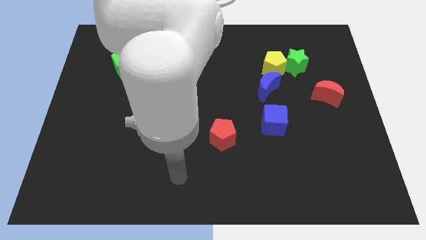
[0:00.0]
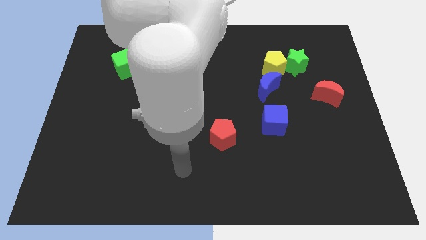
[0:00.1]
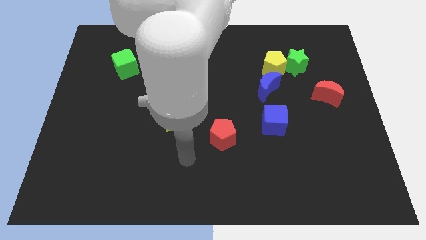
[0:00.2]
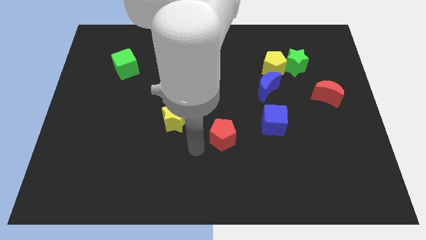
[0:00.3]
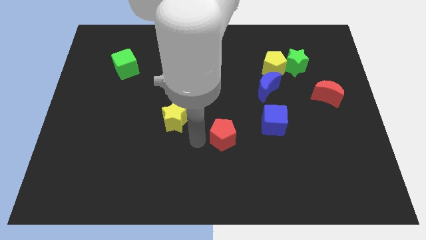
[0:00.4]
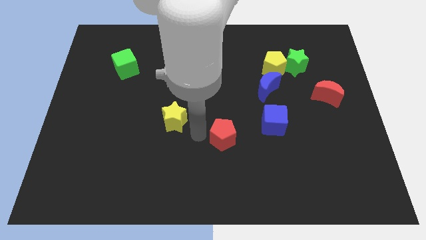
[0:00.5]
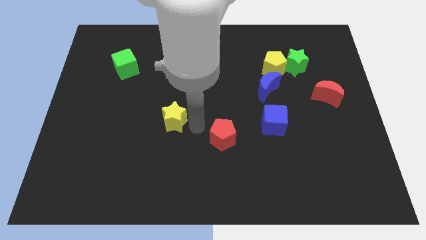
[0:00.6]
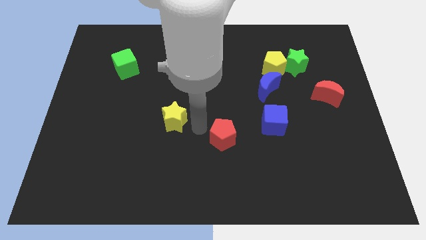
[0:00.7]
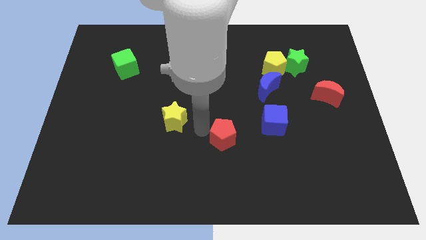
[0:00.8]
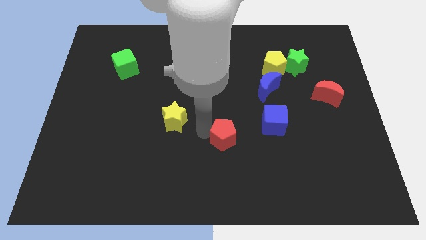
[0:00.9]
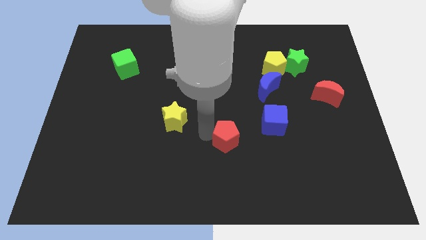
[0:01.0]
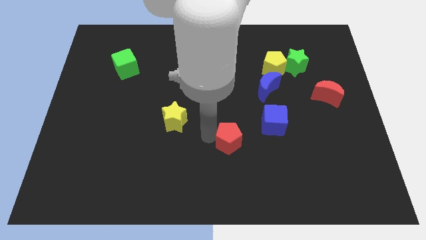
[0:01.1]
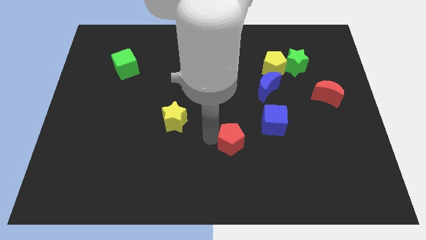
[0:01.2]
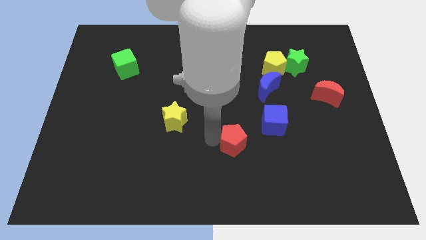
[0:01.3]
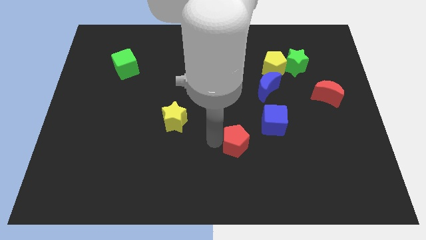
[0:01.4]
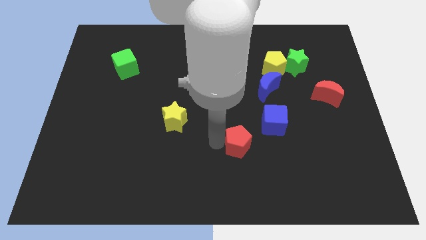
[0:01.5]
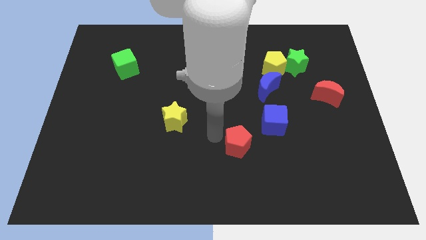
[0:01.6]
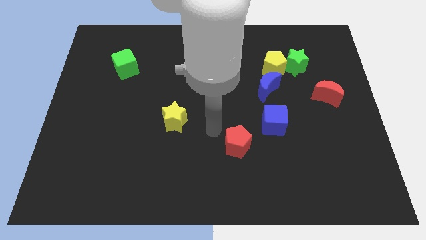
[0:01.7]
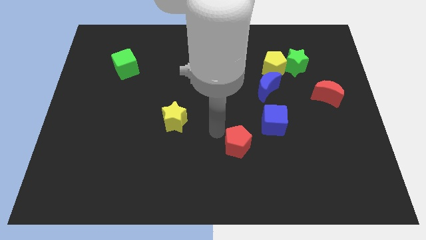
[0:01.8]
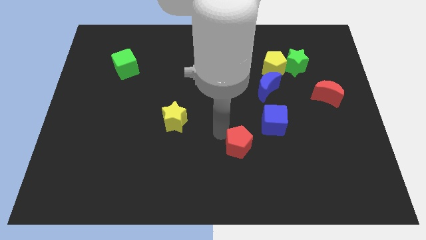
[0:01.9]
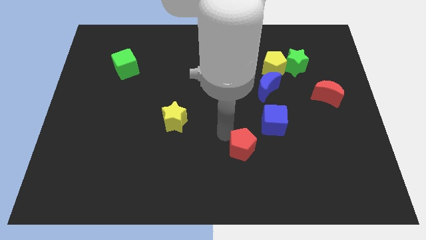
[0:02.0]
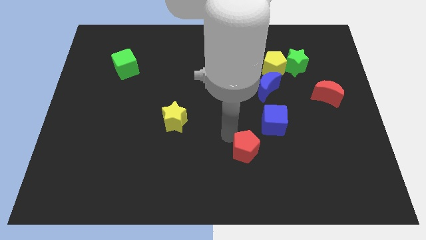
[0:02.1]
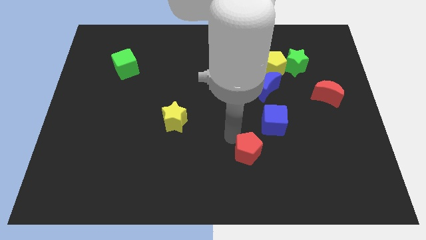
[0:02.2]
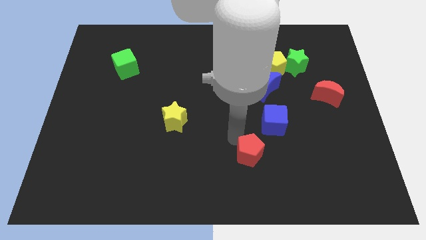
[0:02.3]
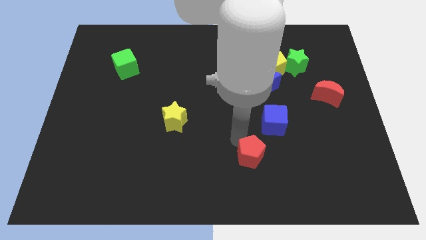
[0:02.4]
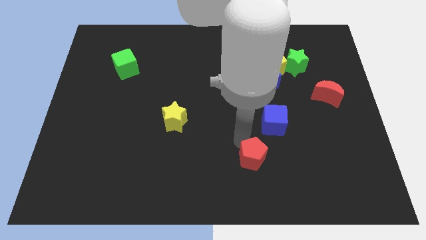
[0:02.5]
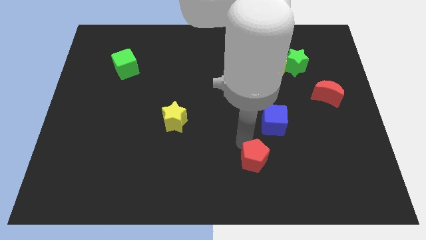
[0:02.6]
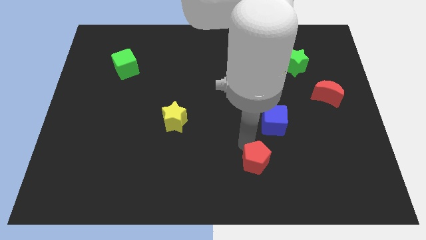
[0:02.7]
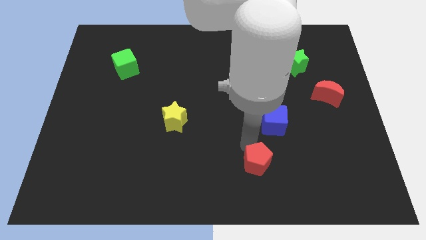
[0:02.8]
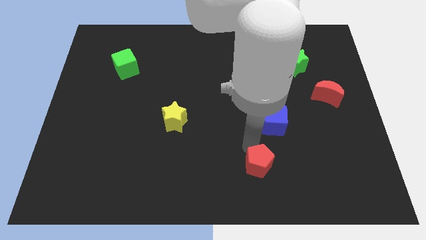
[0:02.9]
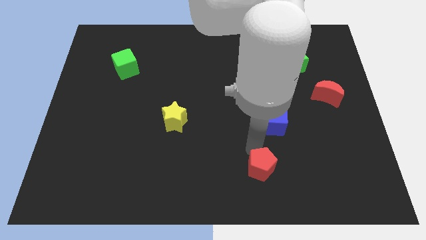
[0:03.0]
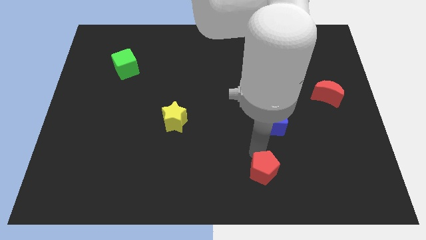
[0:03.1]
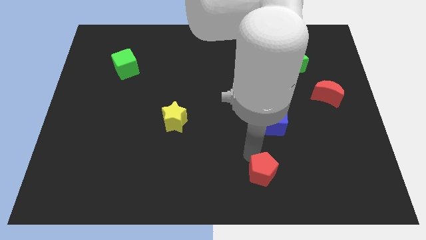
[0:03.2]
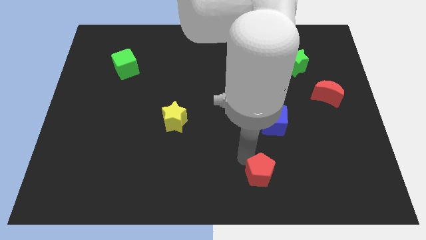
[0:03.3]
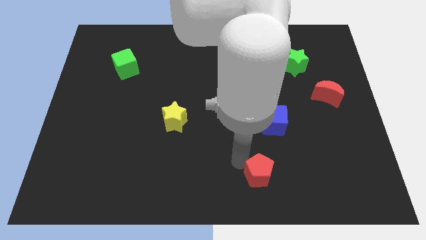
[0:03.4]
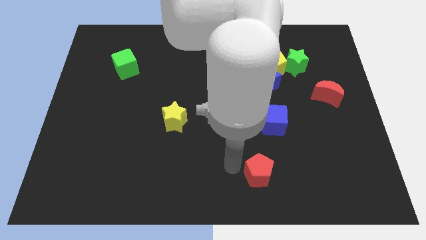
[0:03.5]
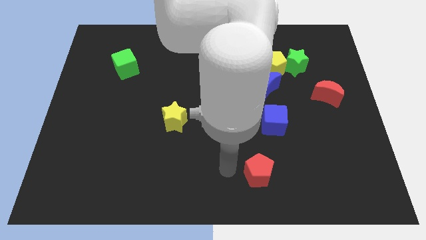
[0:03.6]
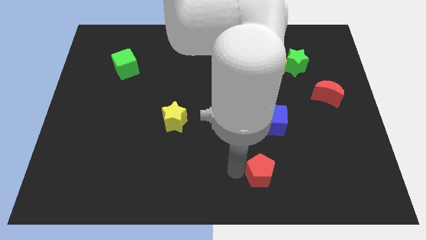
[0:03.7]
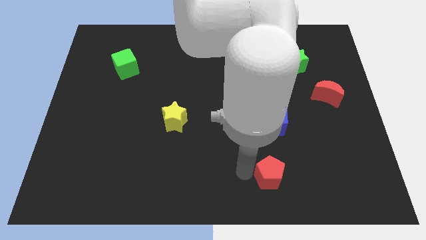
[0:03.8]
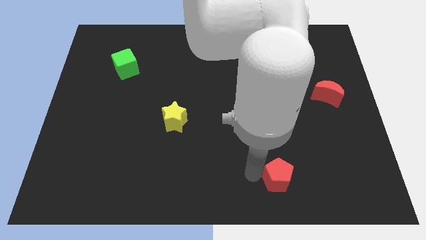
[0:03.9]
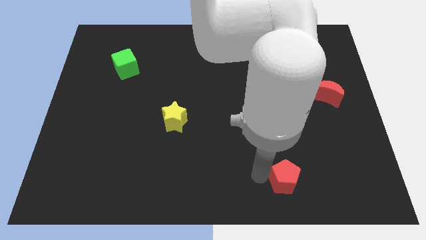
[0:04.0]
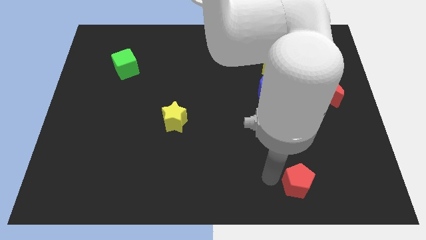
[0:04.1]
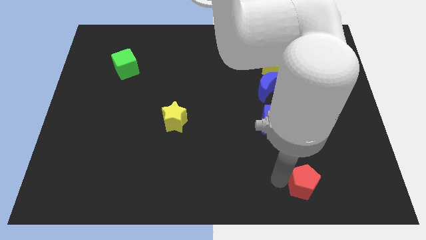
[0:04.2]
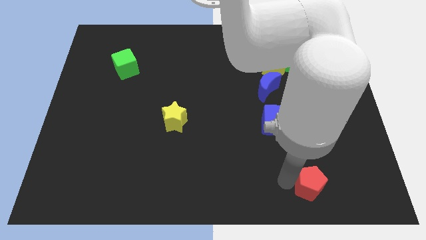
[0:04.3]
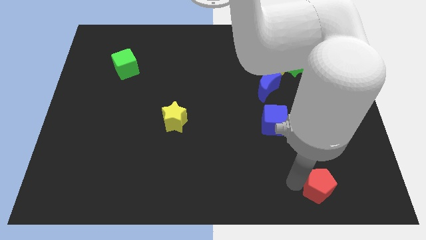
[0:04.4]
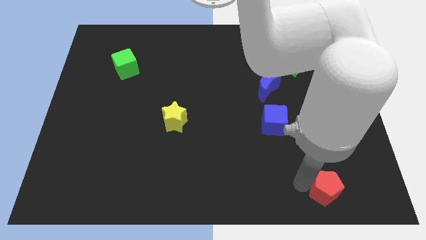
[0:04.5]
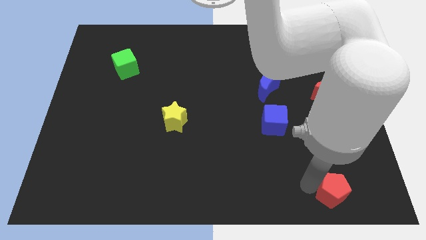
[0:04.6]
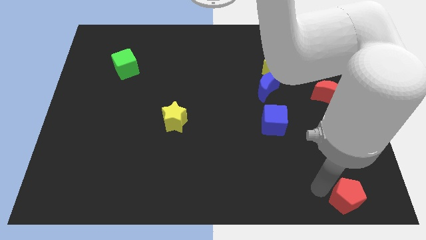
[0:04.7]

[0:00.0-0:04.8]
slide the red pentagon to the lower right corner

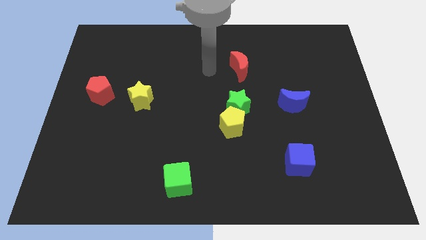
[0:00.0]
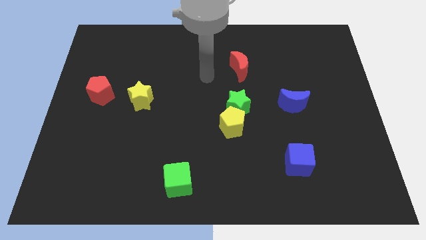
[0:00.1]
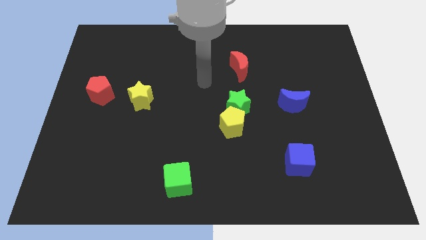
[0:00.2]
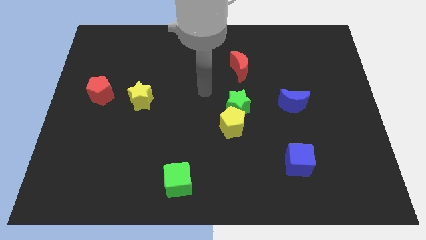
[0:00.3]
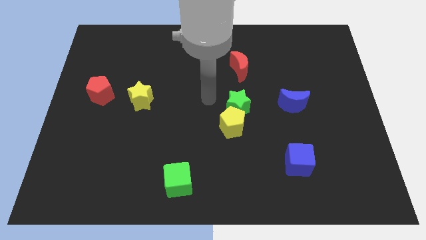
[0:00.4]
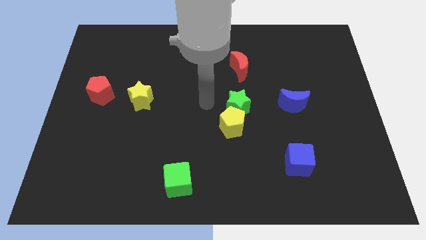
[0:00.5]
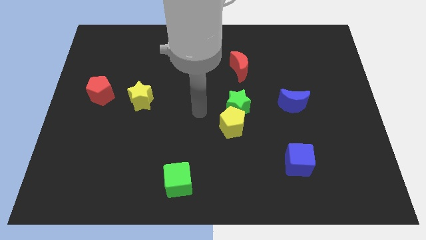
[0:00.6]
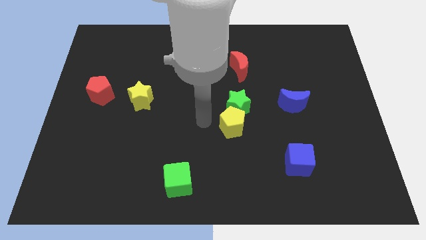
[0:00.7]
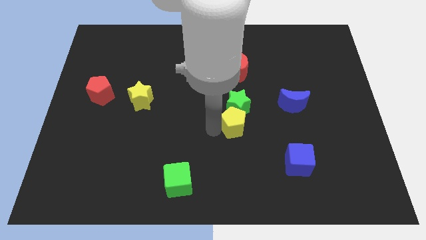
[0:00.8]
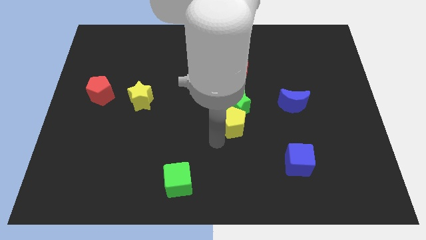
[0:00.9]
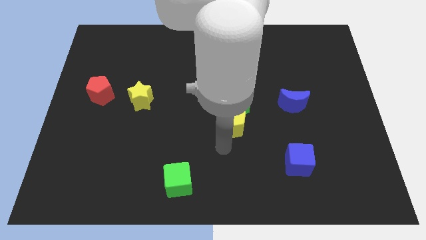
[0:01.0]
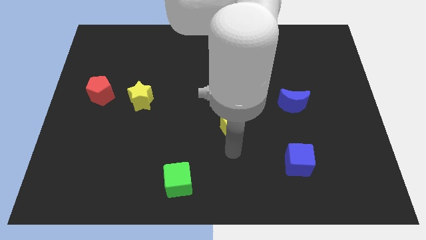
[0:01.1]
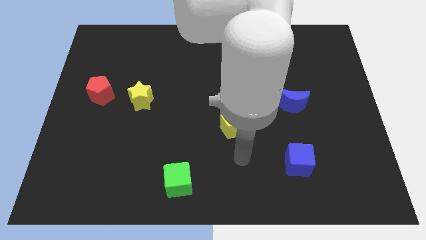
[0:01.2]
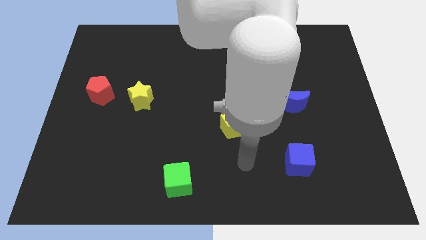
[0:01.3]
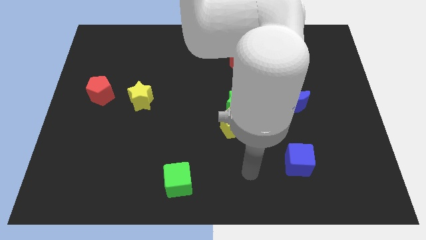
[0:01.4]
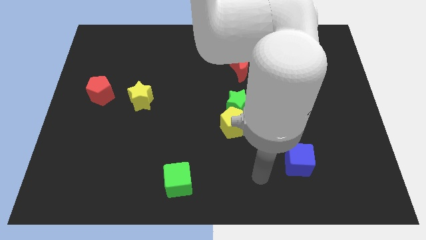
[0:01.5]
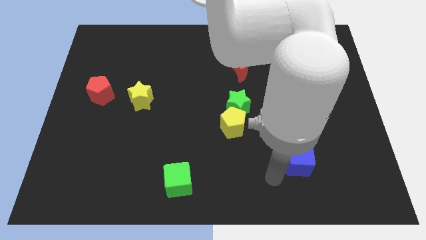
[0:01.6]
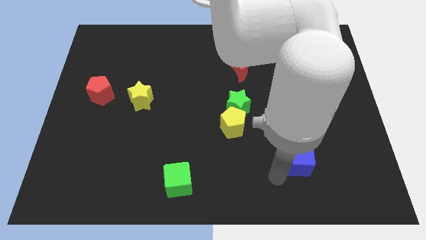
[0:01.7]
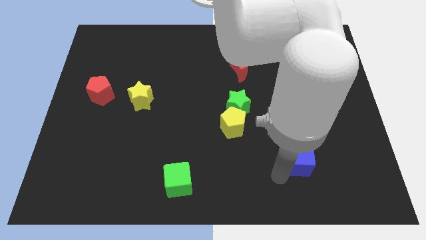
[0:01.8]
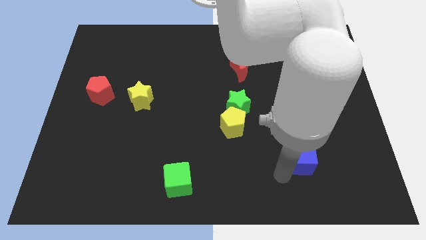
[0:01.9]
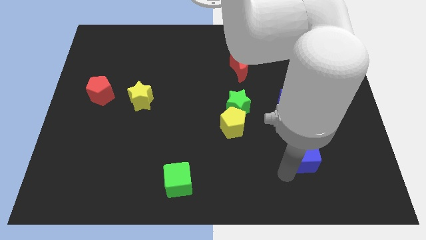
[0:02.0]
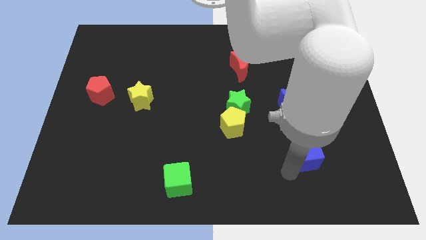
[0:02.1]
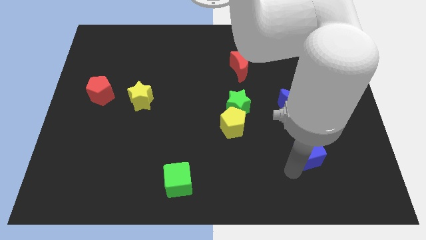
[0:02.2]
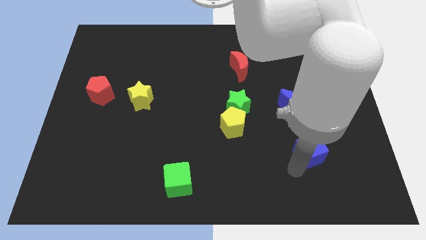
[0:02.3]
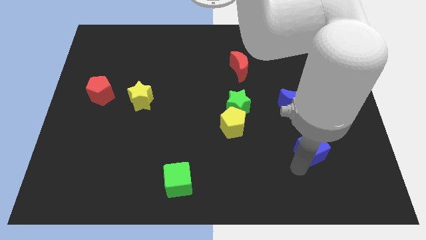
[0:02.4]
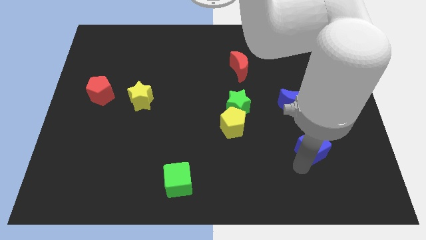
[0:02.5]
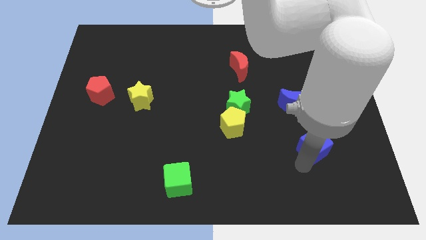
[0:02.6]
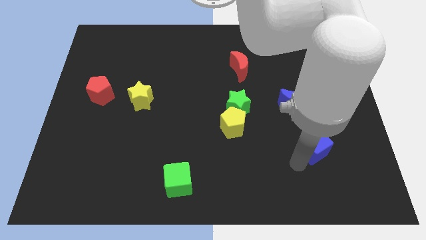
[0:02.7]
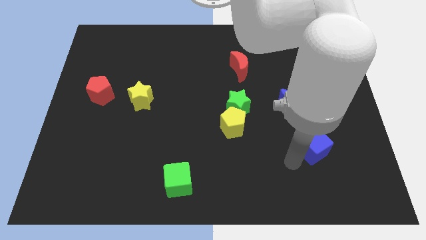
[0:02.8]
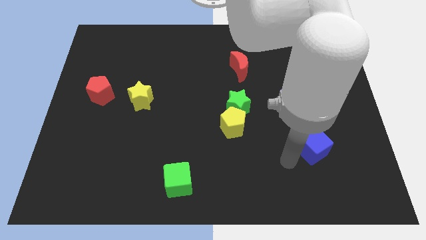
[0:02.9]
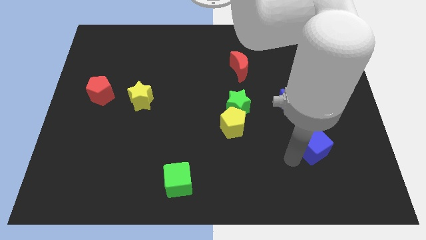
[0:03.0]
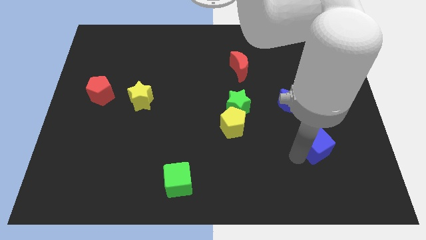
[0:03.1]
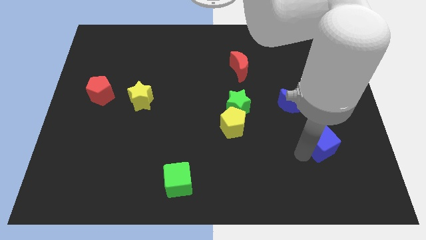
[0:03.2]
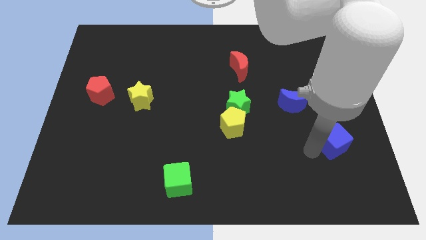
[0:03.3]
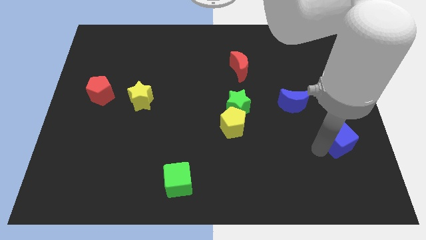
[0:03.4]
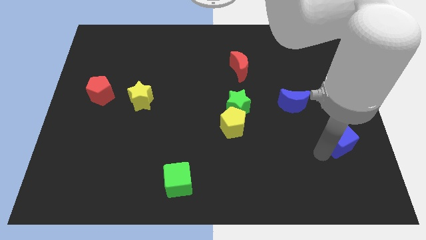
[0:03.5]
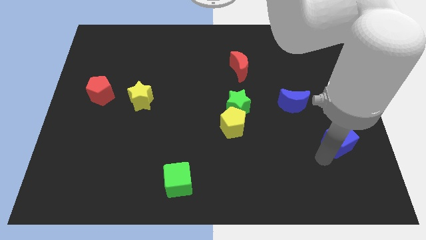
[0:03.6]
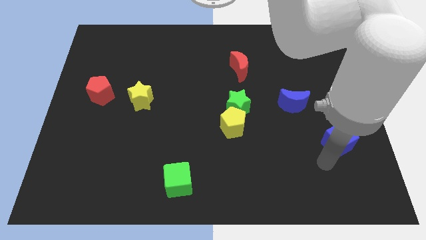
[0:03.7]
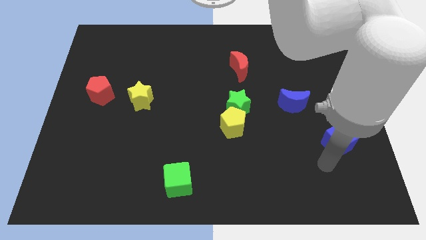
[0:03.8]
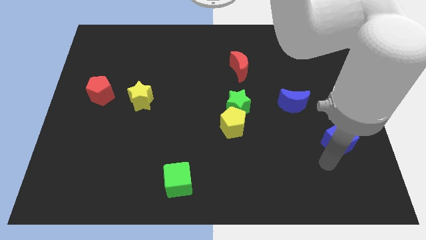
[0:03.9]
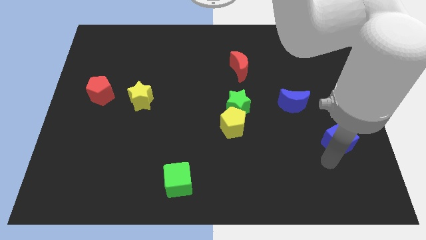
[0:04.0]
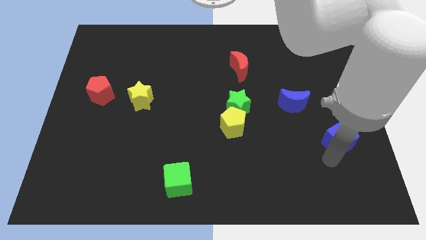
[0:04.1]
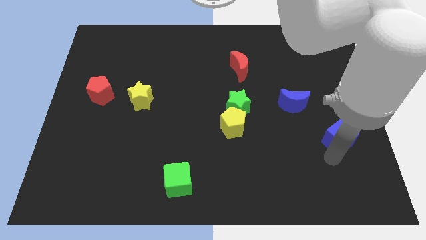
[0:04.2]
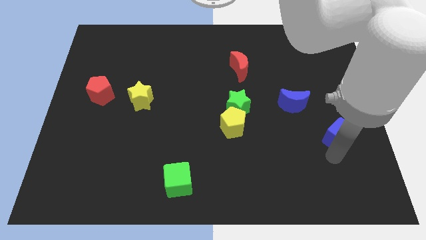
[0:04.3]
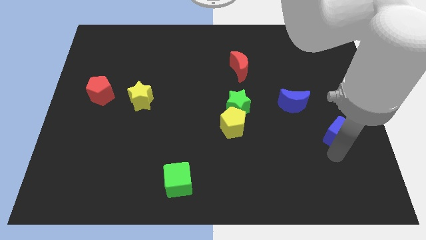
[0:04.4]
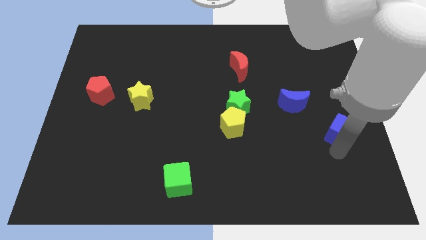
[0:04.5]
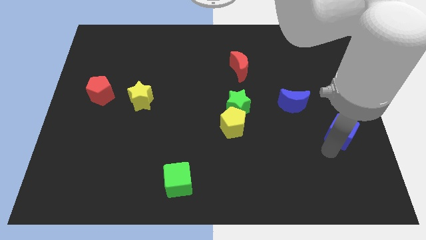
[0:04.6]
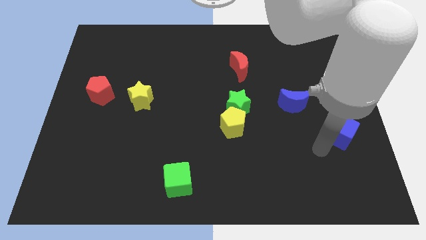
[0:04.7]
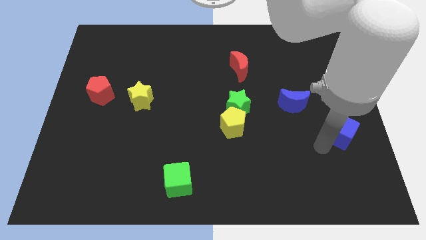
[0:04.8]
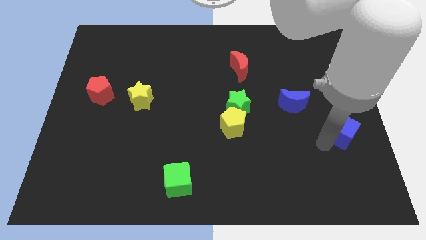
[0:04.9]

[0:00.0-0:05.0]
slide the blue cube to the center right
